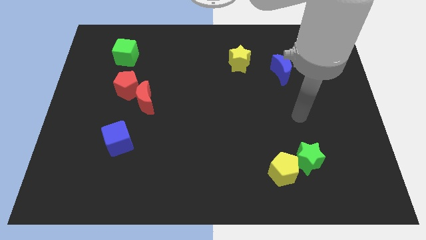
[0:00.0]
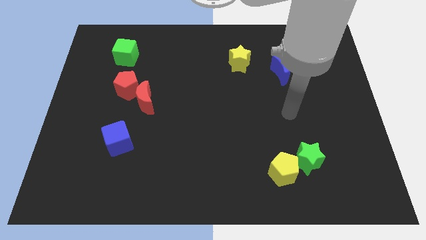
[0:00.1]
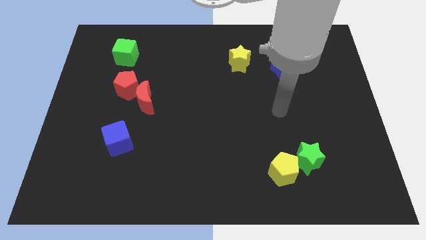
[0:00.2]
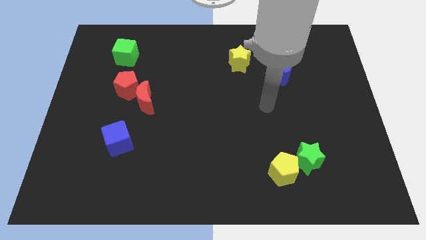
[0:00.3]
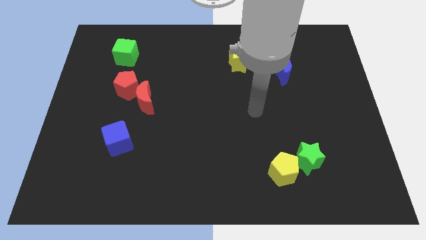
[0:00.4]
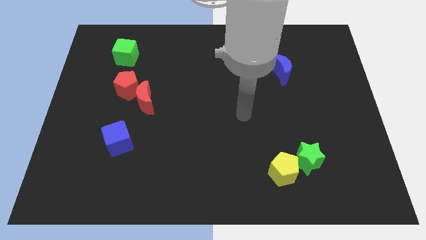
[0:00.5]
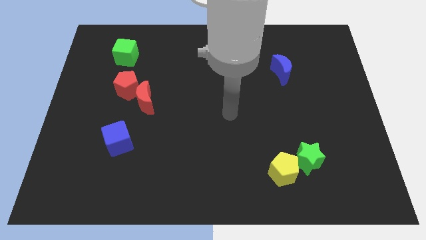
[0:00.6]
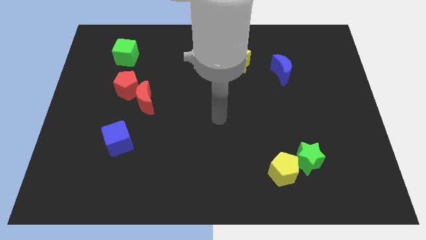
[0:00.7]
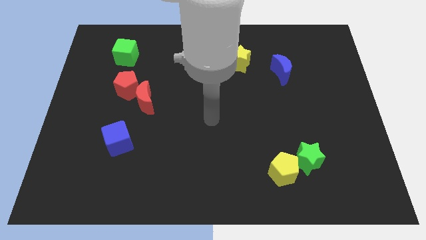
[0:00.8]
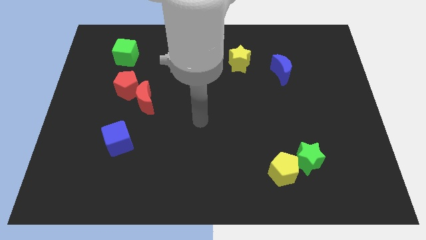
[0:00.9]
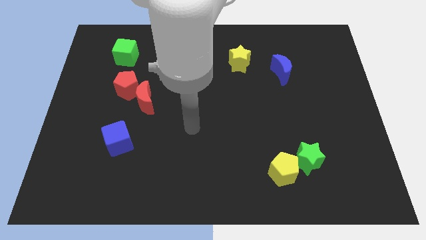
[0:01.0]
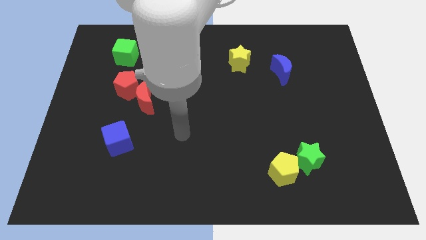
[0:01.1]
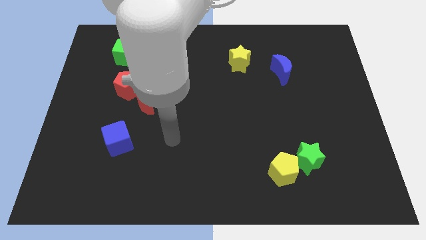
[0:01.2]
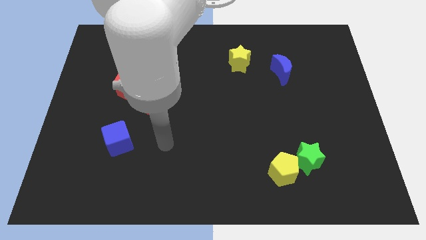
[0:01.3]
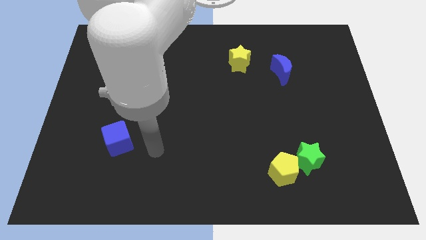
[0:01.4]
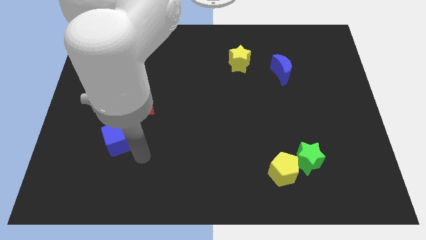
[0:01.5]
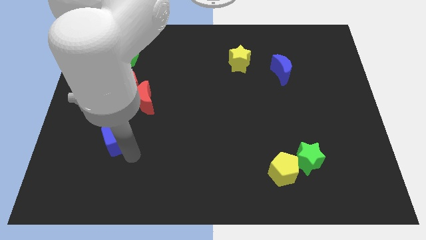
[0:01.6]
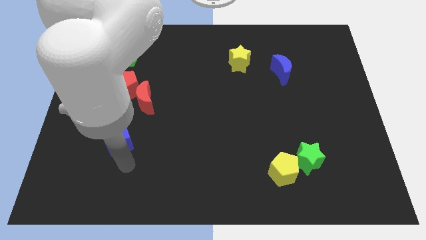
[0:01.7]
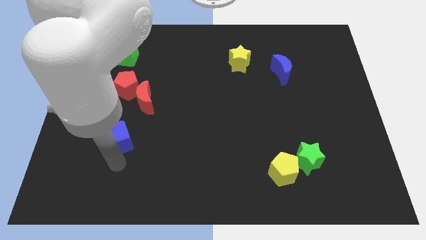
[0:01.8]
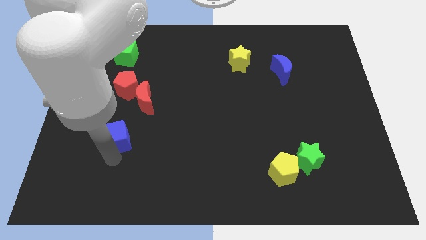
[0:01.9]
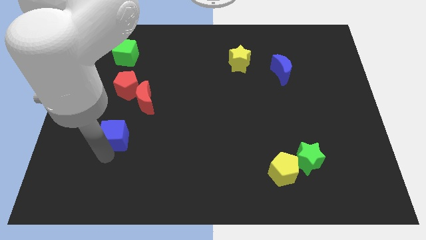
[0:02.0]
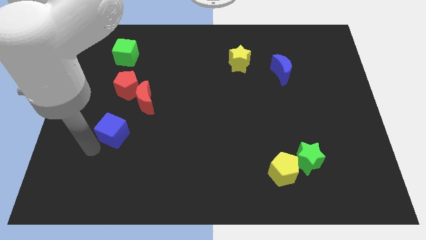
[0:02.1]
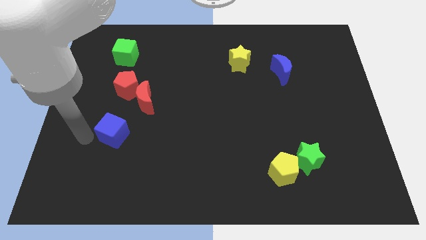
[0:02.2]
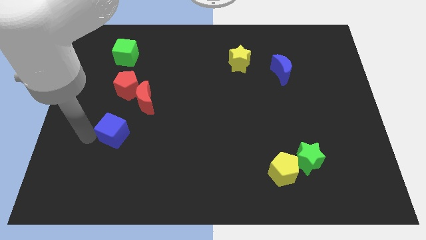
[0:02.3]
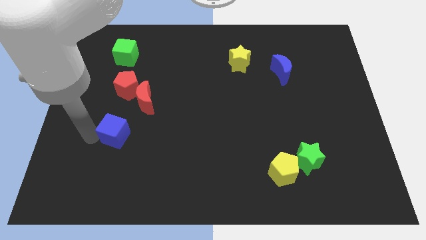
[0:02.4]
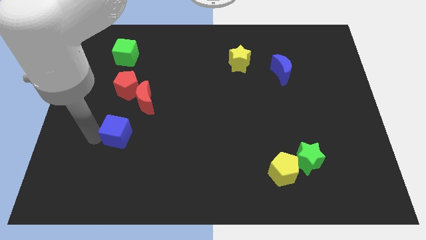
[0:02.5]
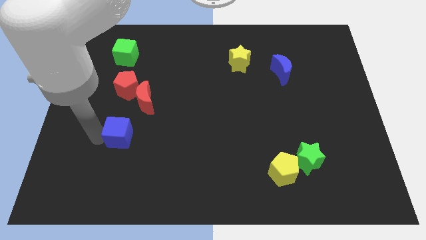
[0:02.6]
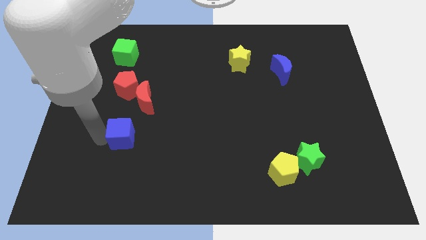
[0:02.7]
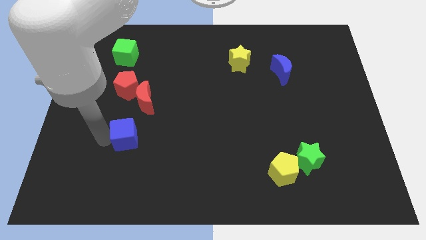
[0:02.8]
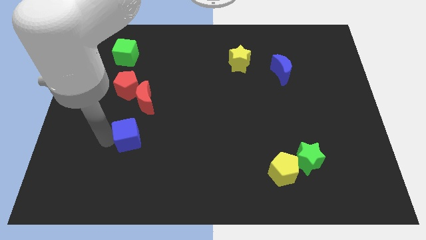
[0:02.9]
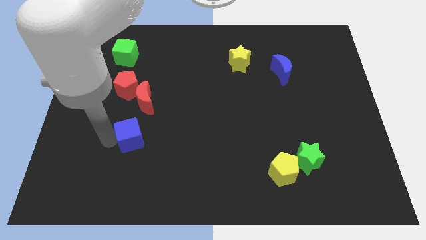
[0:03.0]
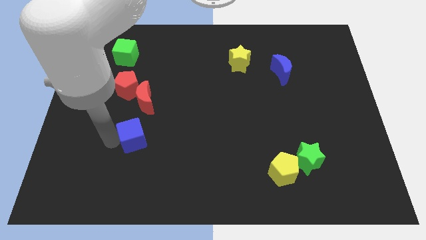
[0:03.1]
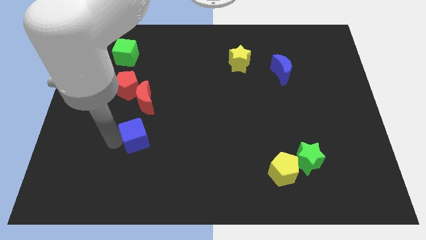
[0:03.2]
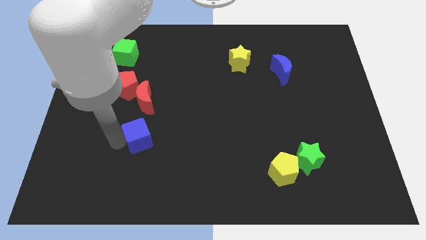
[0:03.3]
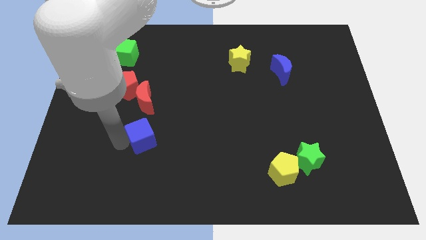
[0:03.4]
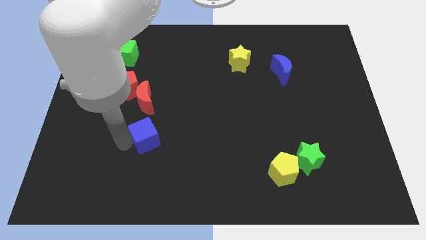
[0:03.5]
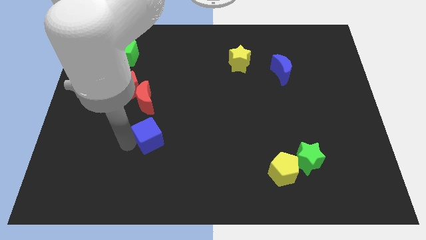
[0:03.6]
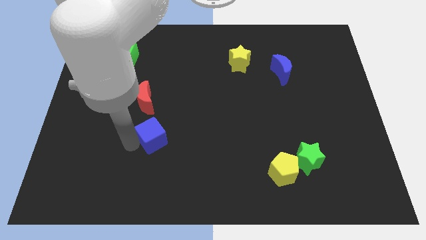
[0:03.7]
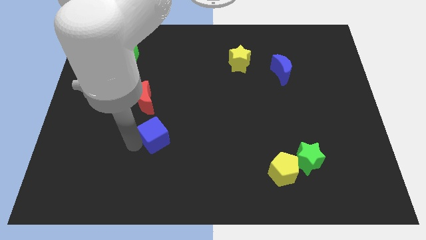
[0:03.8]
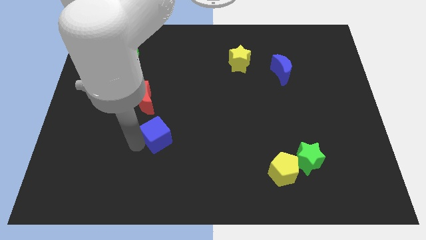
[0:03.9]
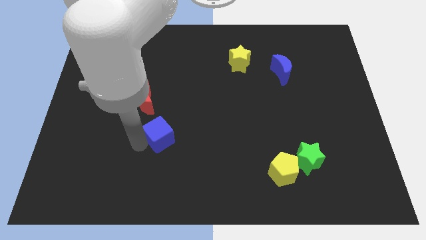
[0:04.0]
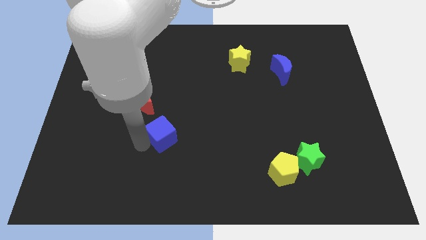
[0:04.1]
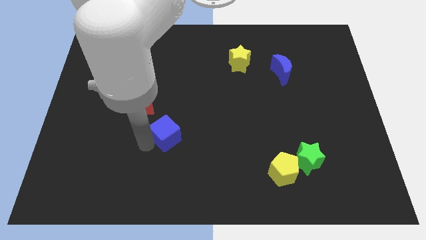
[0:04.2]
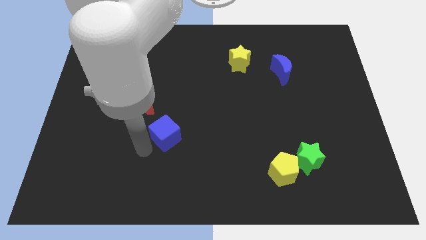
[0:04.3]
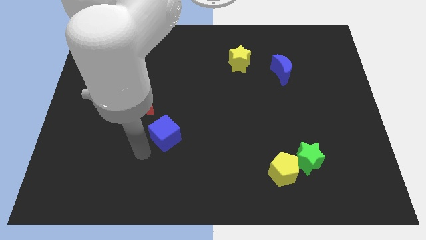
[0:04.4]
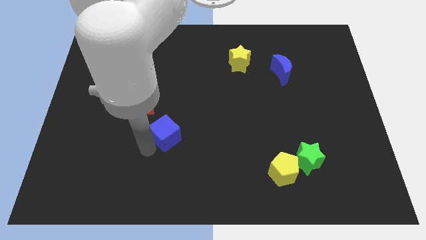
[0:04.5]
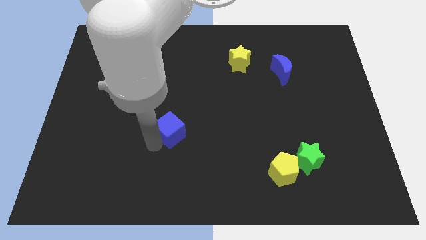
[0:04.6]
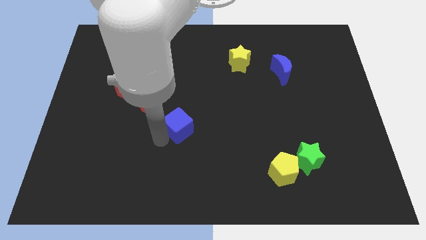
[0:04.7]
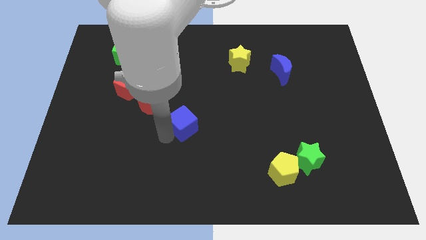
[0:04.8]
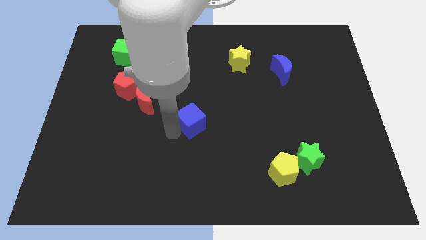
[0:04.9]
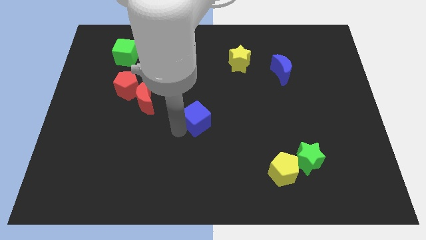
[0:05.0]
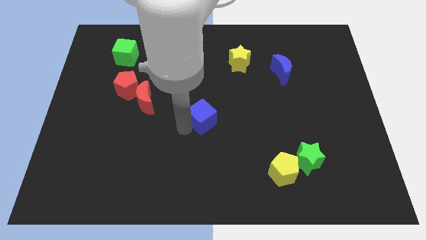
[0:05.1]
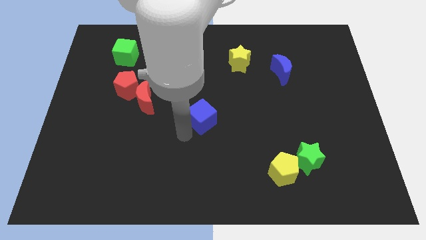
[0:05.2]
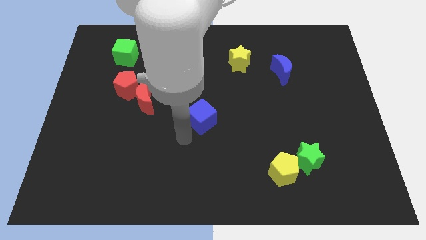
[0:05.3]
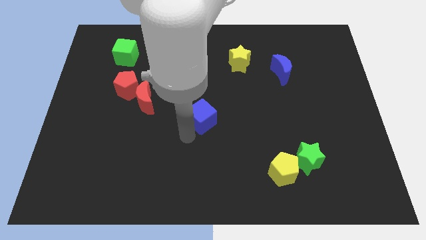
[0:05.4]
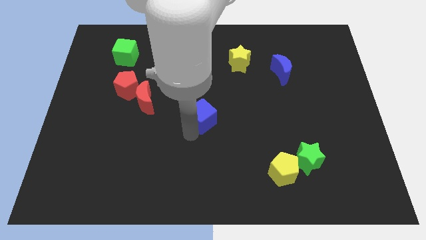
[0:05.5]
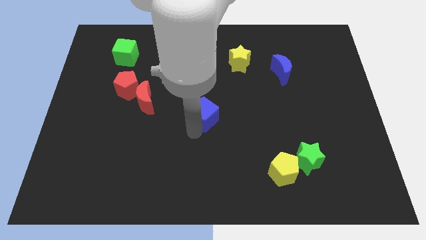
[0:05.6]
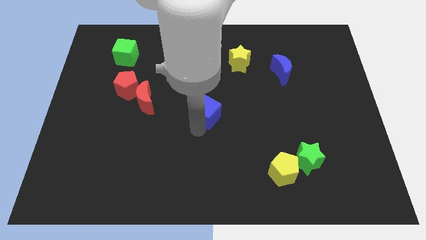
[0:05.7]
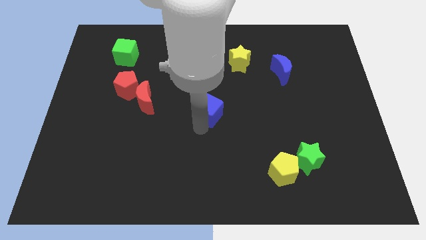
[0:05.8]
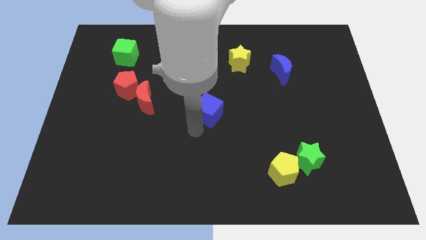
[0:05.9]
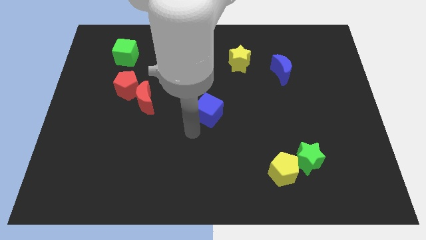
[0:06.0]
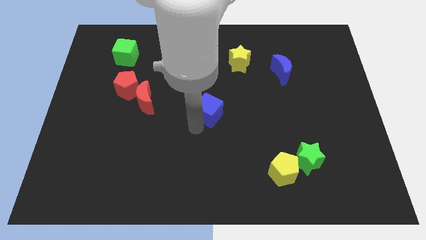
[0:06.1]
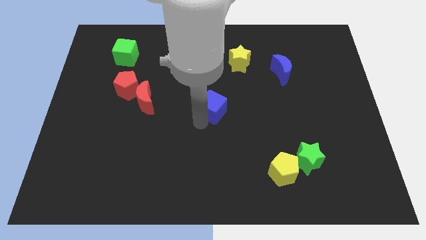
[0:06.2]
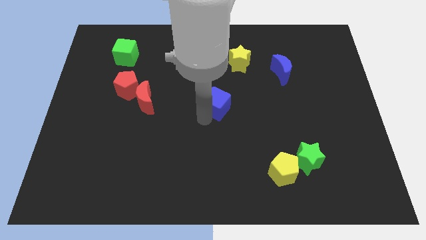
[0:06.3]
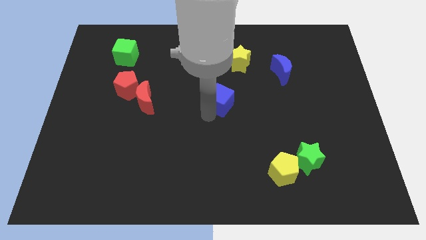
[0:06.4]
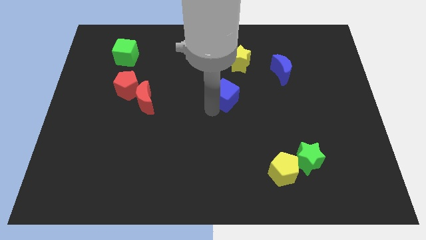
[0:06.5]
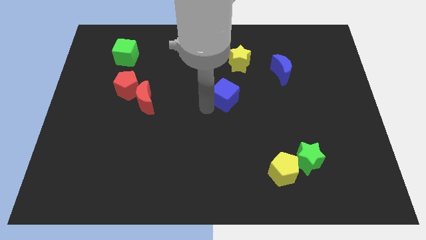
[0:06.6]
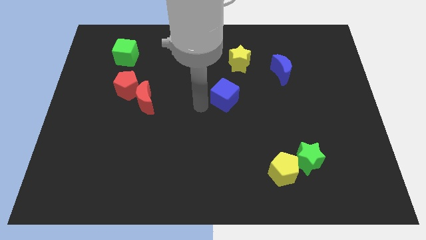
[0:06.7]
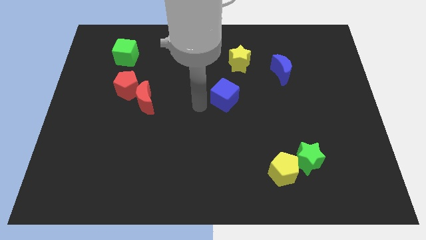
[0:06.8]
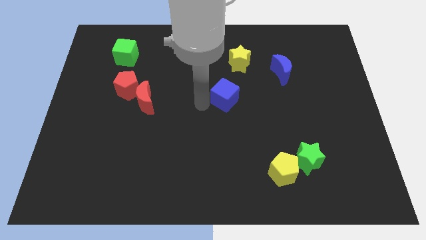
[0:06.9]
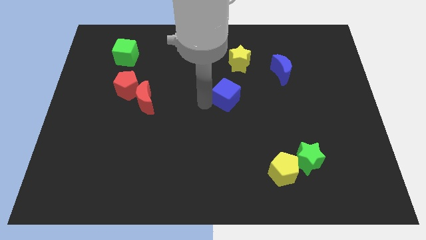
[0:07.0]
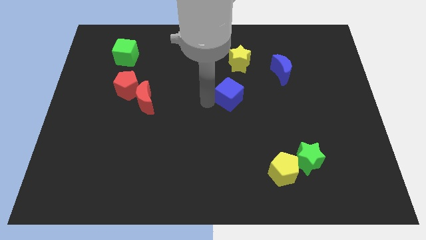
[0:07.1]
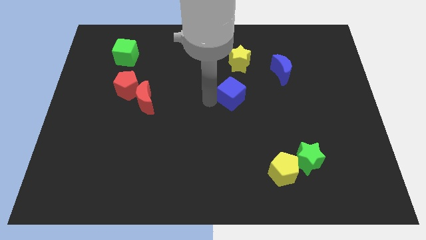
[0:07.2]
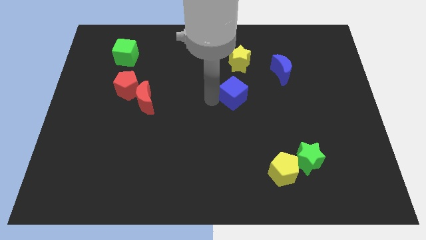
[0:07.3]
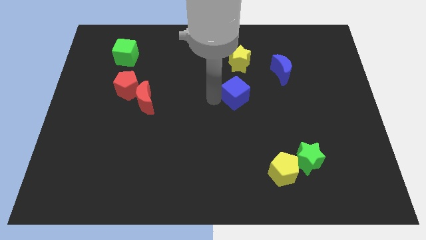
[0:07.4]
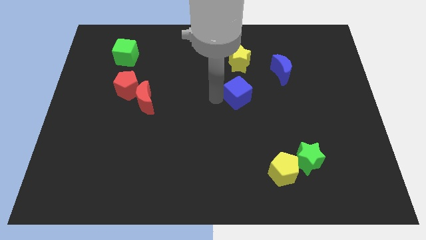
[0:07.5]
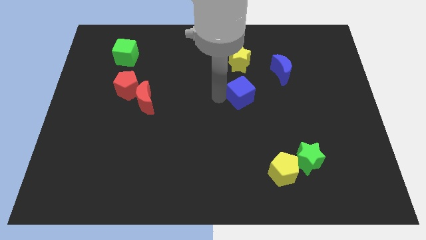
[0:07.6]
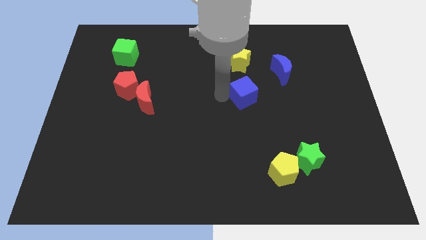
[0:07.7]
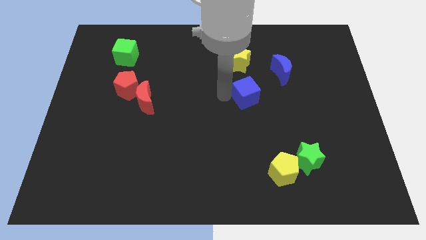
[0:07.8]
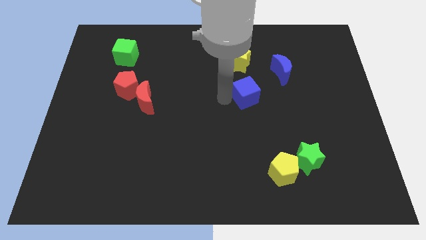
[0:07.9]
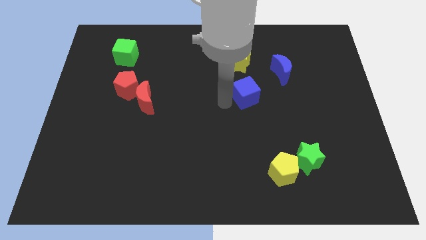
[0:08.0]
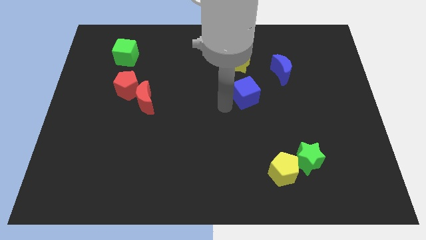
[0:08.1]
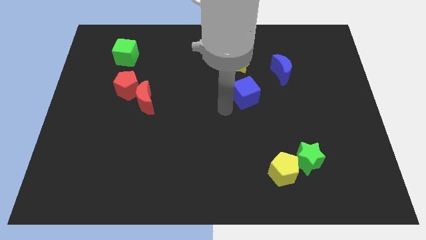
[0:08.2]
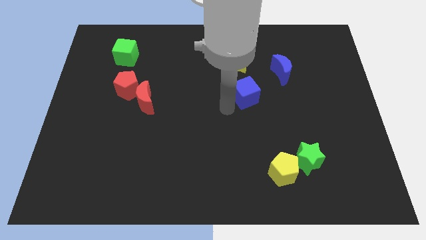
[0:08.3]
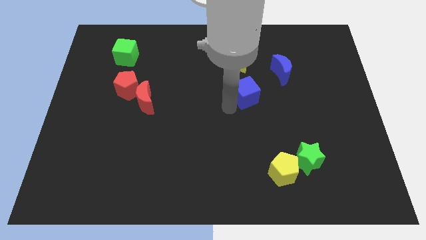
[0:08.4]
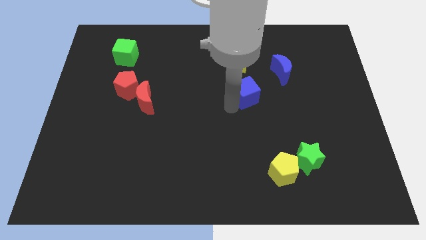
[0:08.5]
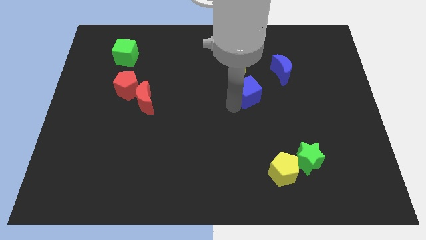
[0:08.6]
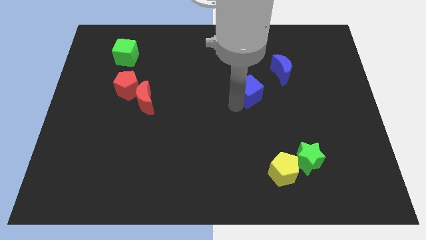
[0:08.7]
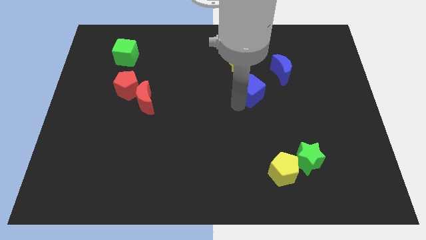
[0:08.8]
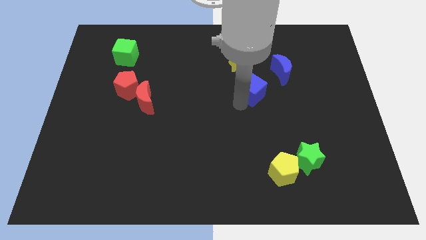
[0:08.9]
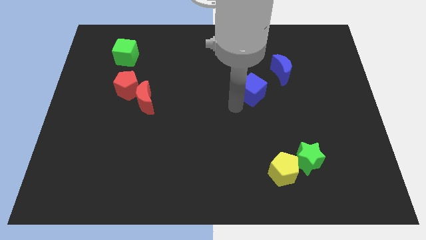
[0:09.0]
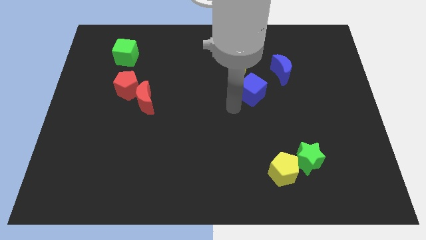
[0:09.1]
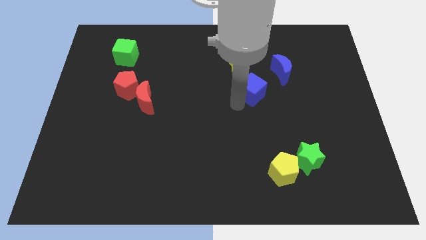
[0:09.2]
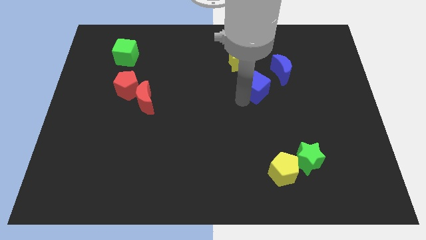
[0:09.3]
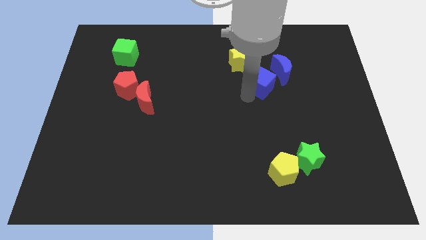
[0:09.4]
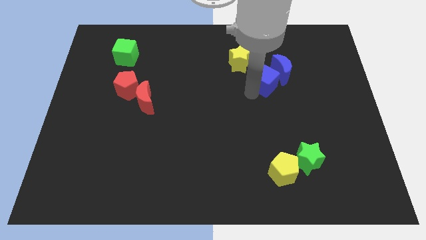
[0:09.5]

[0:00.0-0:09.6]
move the blue cube towards the blue moon
